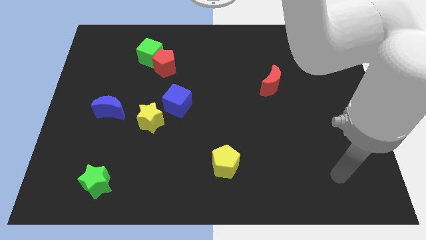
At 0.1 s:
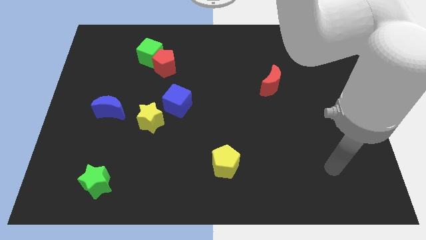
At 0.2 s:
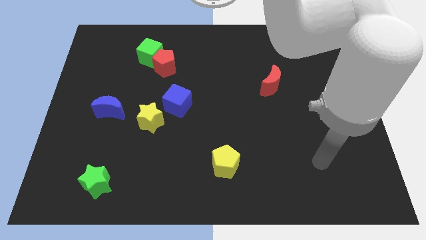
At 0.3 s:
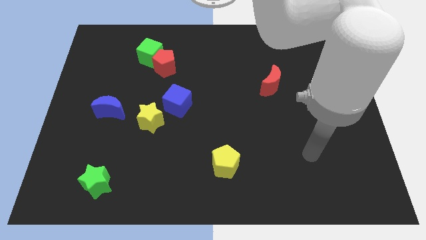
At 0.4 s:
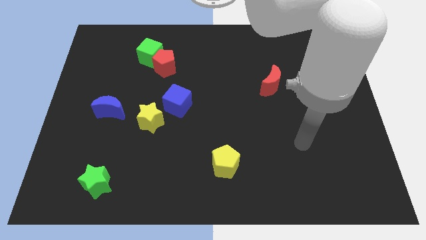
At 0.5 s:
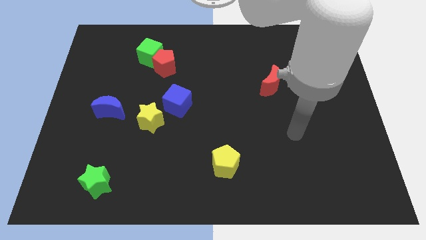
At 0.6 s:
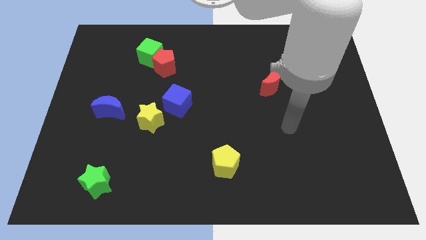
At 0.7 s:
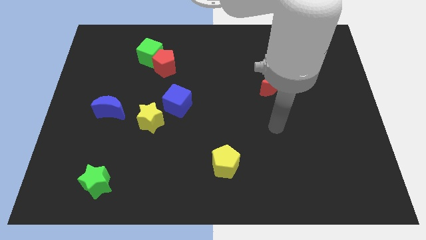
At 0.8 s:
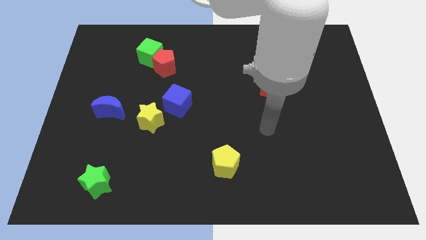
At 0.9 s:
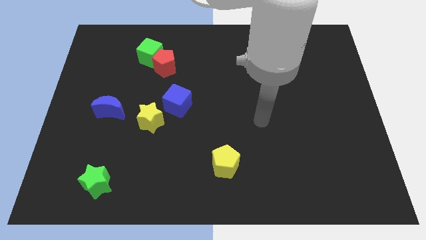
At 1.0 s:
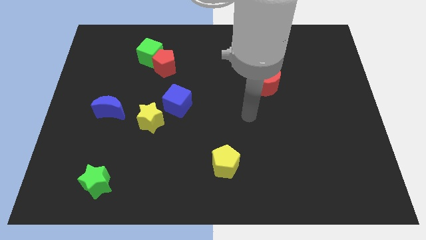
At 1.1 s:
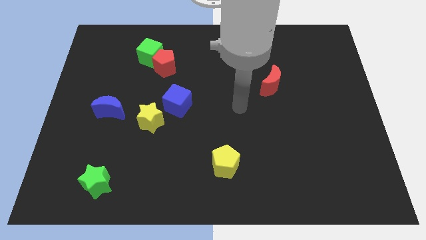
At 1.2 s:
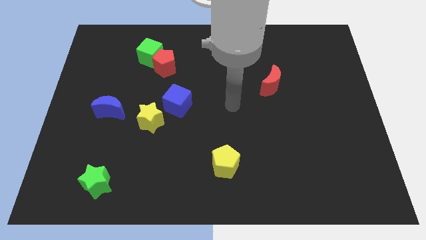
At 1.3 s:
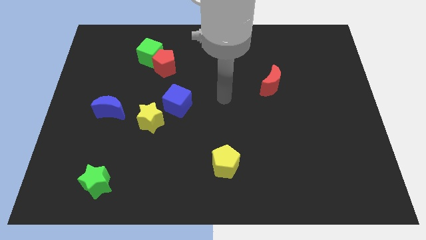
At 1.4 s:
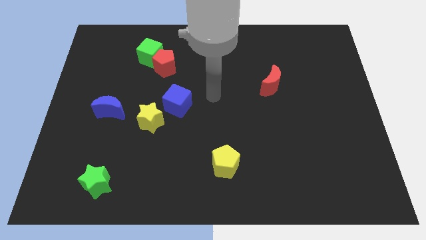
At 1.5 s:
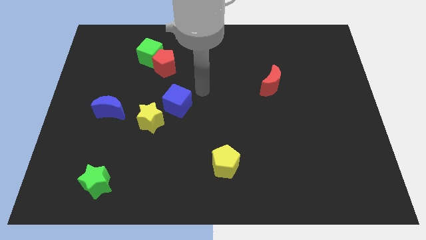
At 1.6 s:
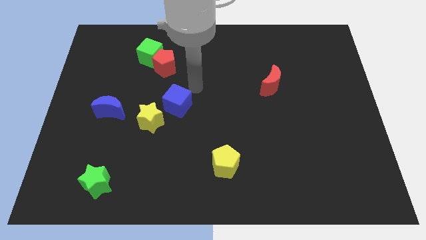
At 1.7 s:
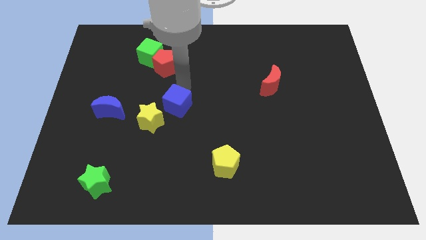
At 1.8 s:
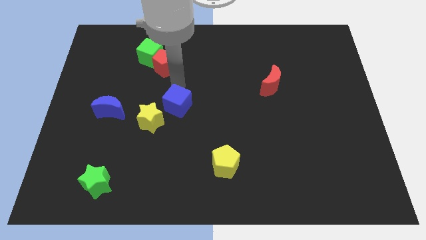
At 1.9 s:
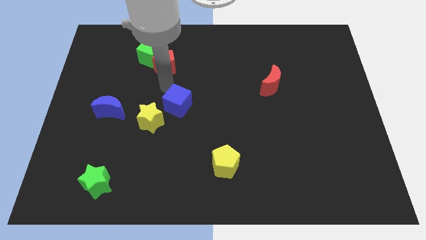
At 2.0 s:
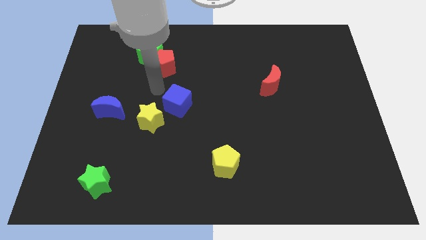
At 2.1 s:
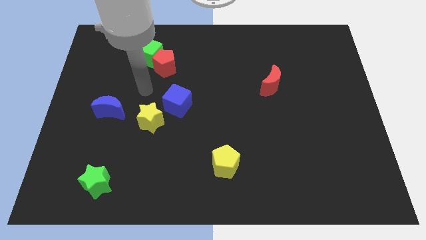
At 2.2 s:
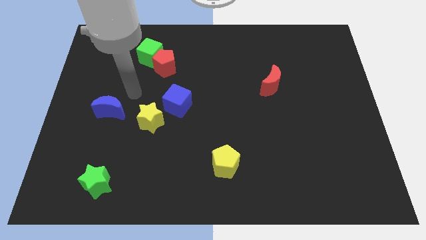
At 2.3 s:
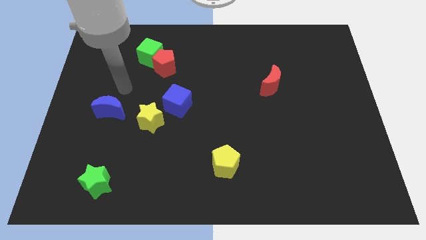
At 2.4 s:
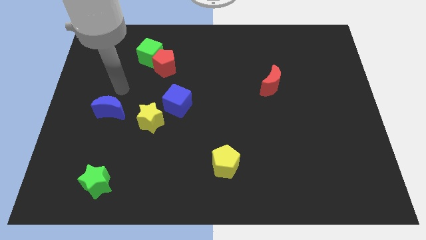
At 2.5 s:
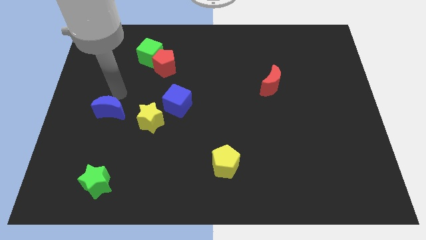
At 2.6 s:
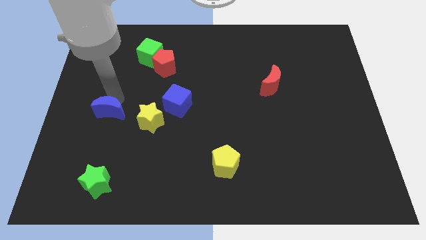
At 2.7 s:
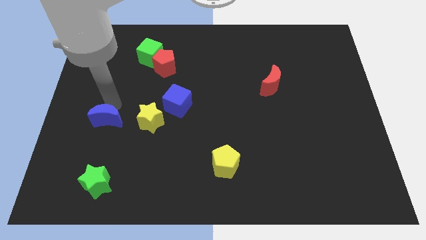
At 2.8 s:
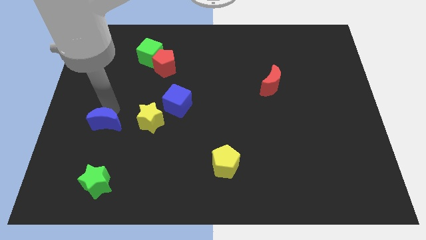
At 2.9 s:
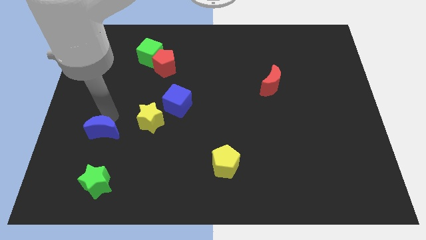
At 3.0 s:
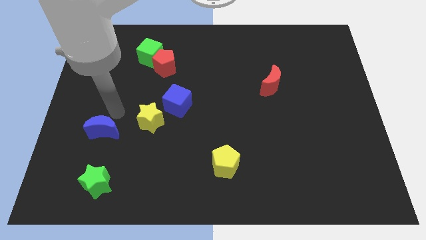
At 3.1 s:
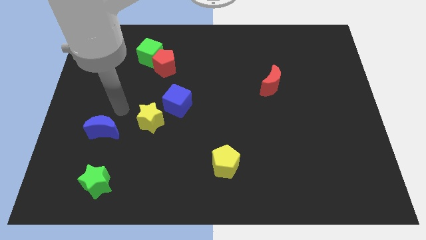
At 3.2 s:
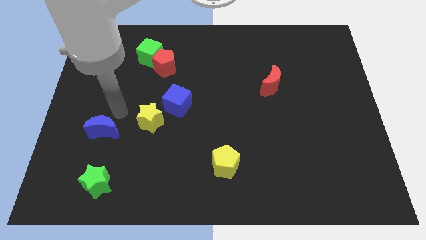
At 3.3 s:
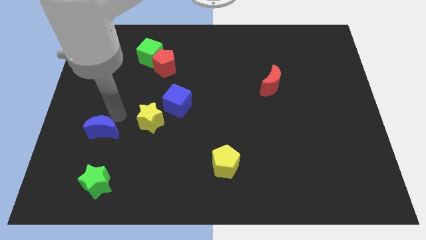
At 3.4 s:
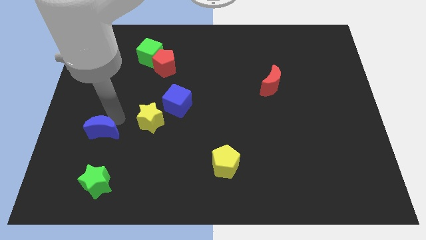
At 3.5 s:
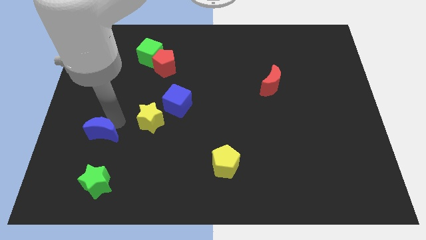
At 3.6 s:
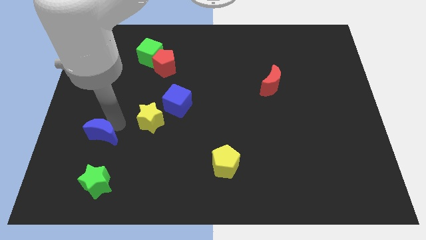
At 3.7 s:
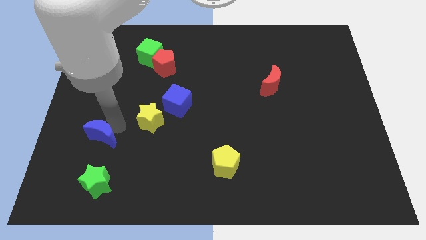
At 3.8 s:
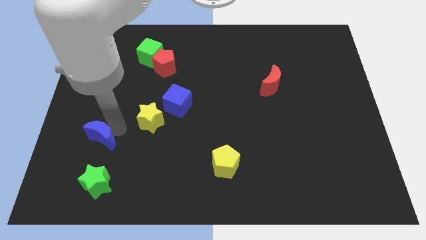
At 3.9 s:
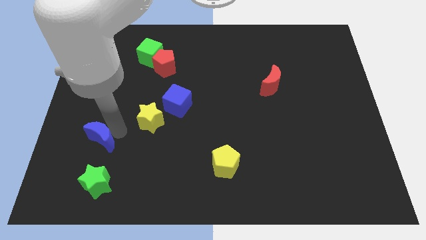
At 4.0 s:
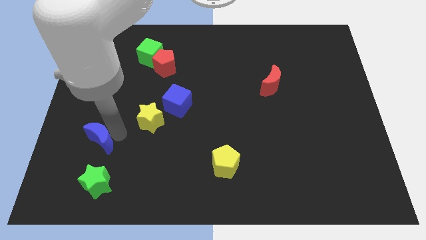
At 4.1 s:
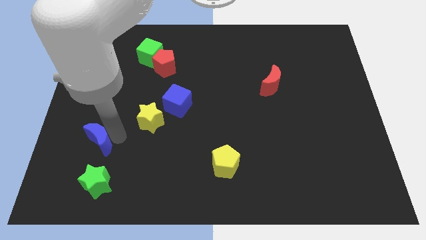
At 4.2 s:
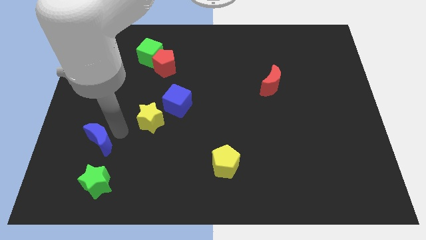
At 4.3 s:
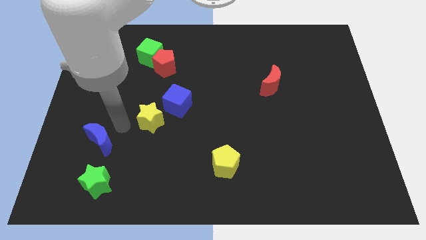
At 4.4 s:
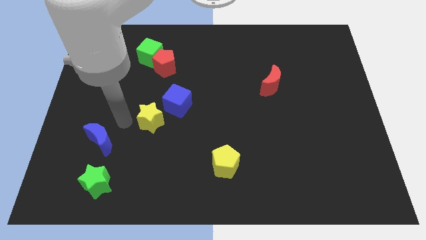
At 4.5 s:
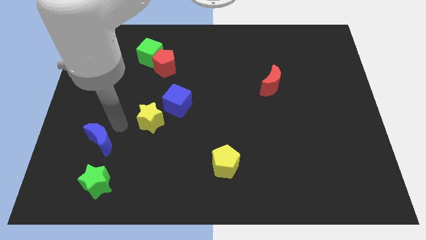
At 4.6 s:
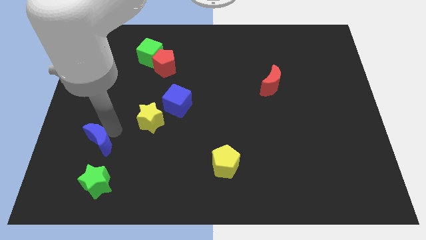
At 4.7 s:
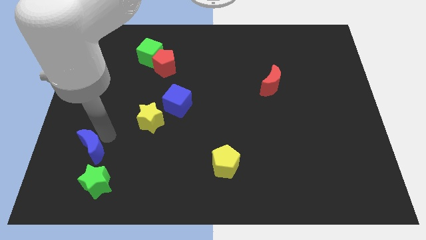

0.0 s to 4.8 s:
move the blue moon diagonally up and to the left of the green star

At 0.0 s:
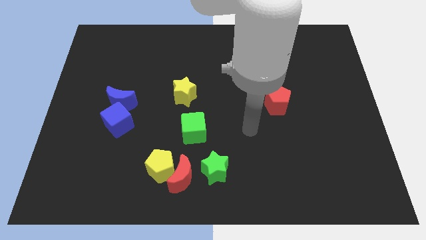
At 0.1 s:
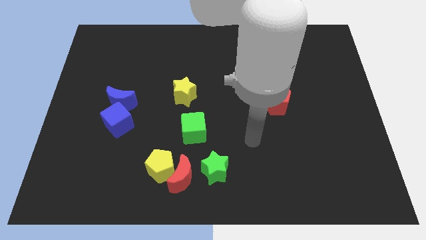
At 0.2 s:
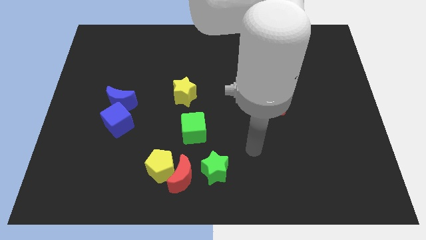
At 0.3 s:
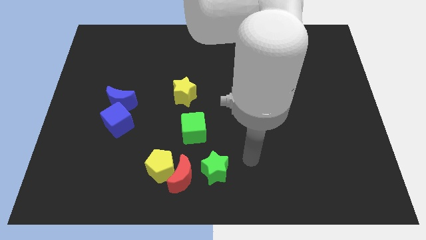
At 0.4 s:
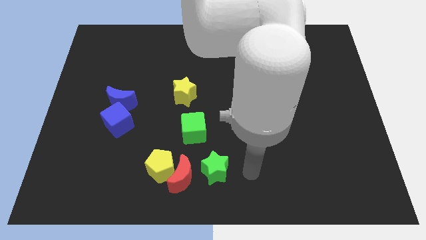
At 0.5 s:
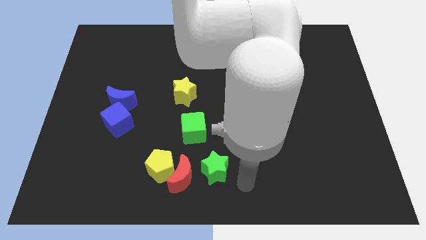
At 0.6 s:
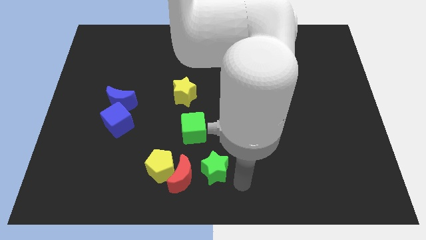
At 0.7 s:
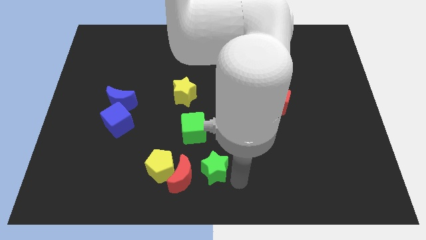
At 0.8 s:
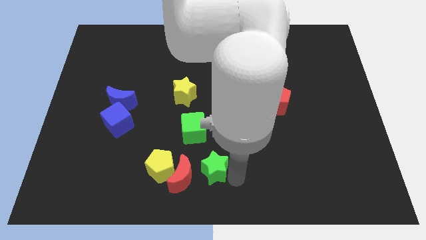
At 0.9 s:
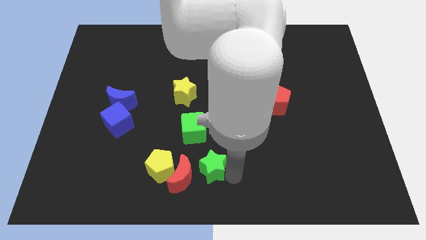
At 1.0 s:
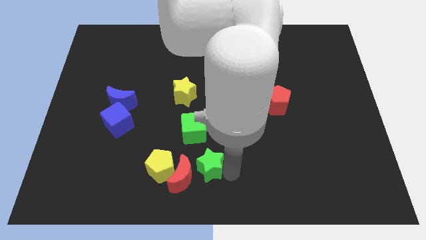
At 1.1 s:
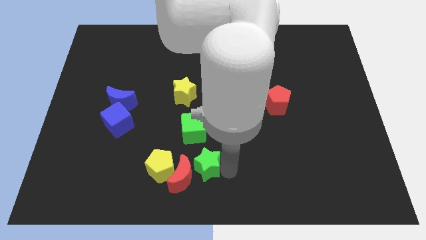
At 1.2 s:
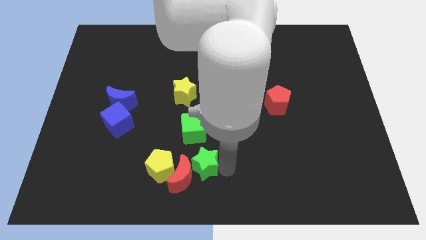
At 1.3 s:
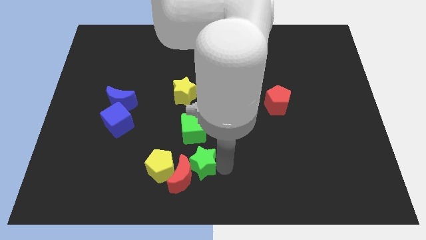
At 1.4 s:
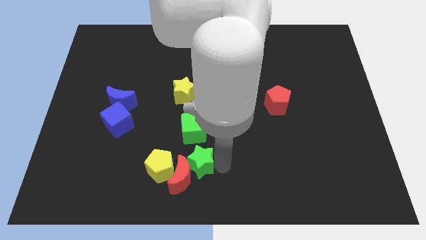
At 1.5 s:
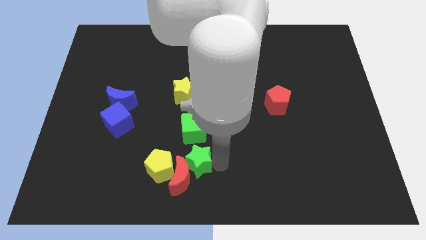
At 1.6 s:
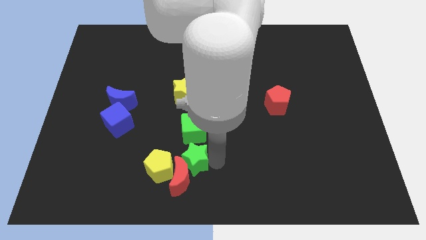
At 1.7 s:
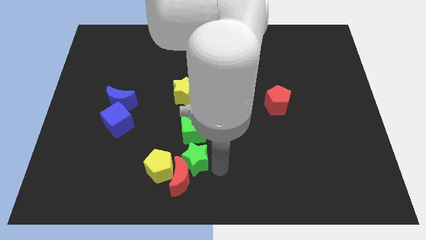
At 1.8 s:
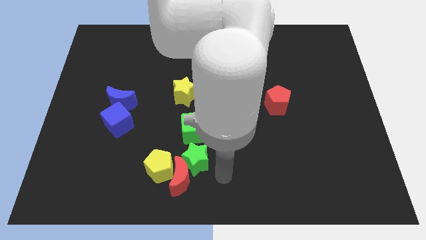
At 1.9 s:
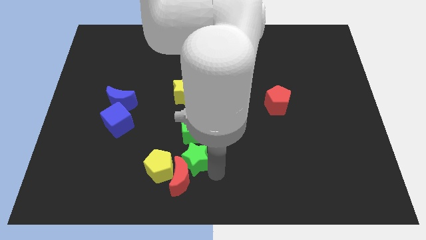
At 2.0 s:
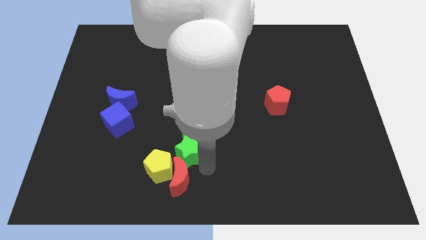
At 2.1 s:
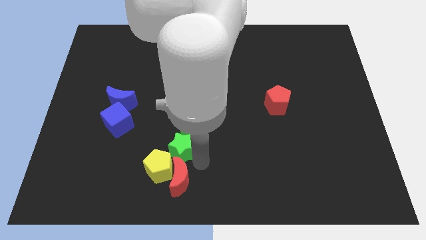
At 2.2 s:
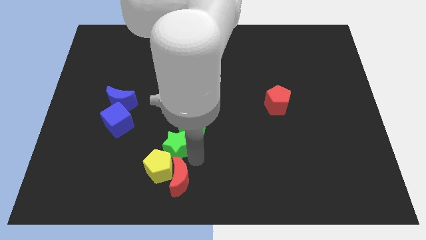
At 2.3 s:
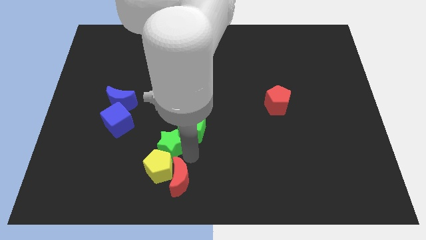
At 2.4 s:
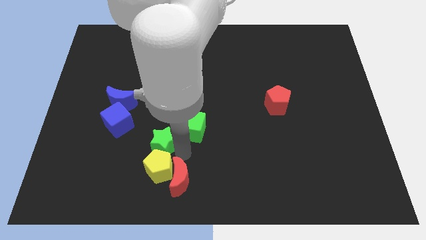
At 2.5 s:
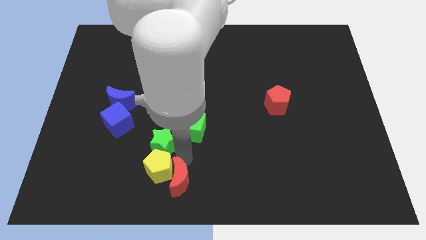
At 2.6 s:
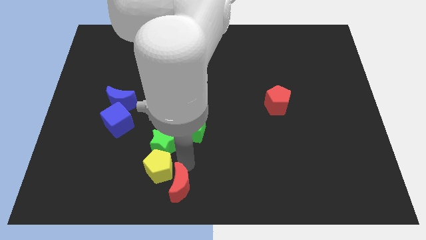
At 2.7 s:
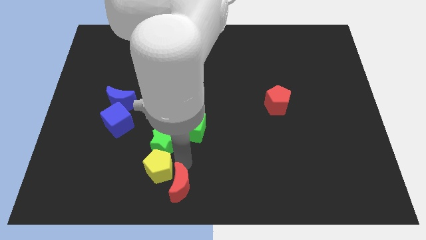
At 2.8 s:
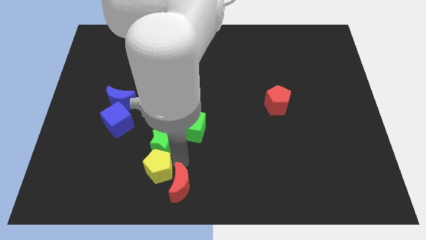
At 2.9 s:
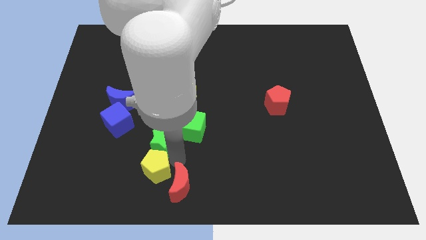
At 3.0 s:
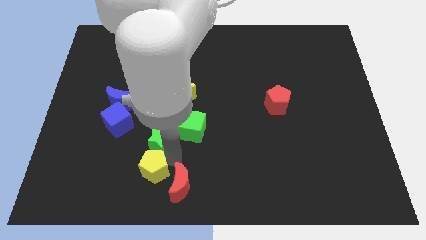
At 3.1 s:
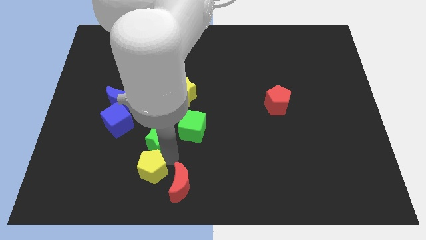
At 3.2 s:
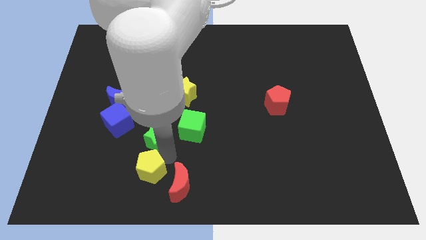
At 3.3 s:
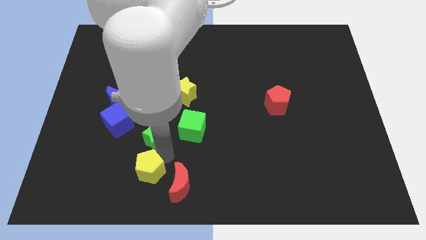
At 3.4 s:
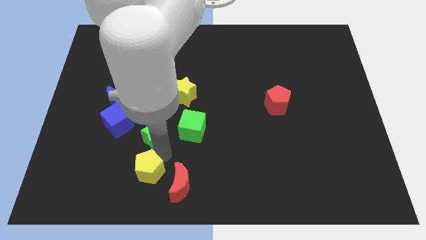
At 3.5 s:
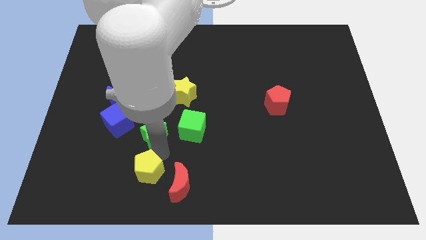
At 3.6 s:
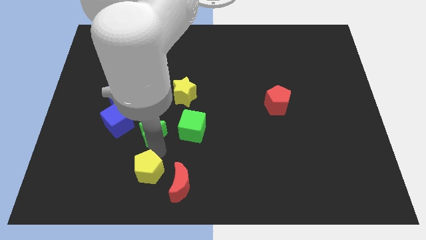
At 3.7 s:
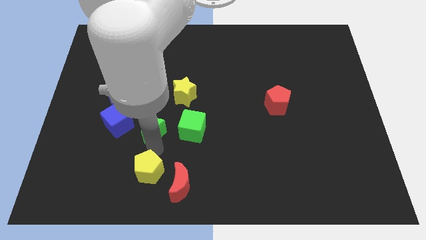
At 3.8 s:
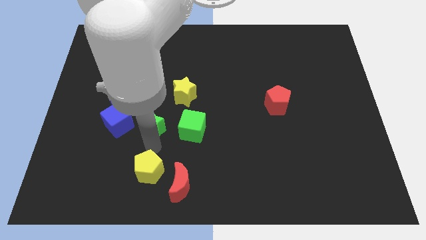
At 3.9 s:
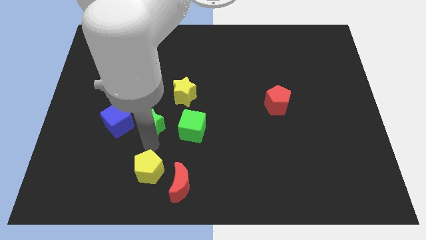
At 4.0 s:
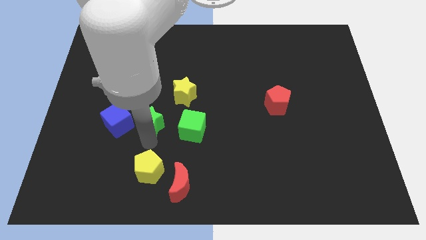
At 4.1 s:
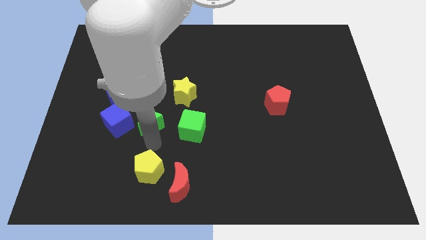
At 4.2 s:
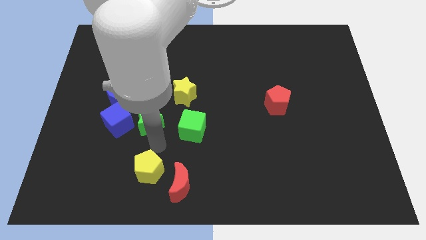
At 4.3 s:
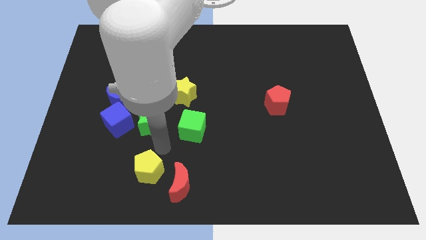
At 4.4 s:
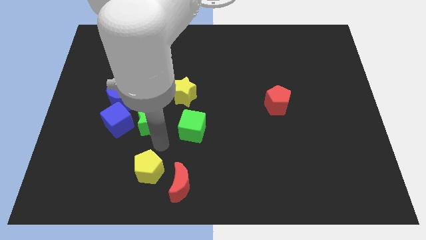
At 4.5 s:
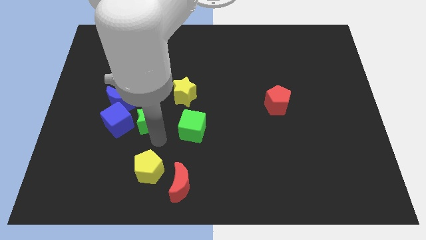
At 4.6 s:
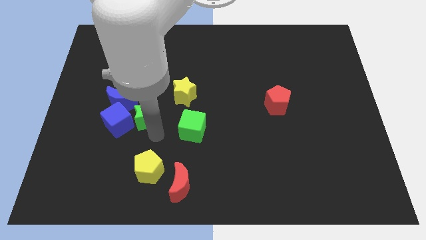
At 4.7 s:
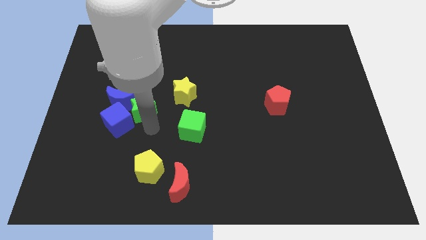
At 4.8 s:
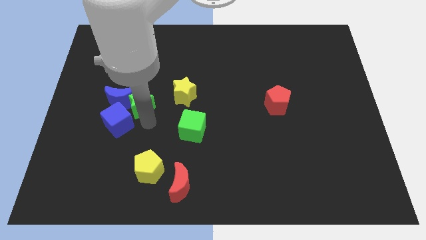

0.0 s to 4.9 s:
move the green star to the left side of the yellow star
